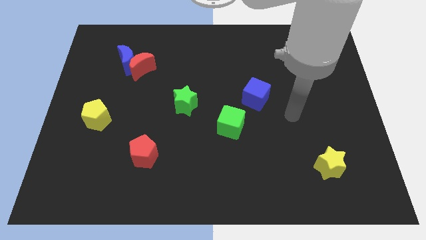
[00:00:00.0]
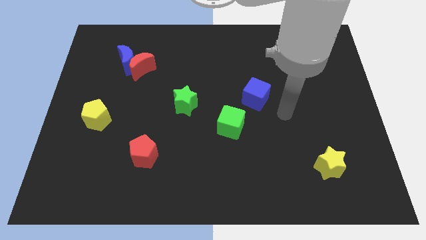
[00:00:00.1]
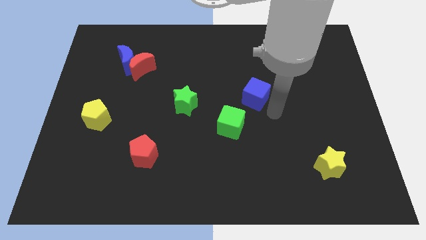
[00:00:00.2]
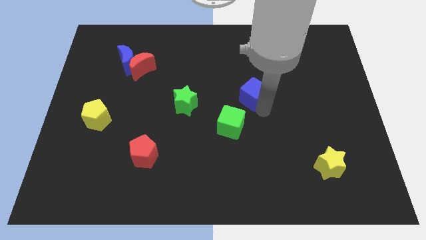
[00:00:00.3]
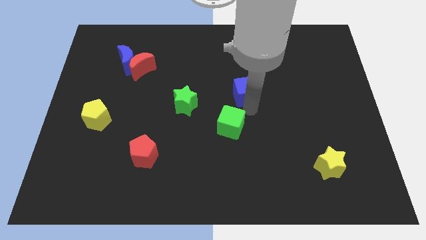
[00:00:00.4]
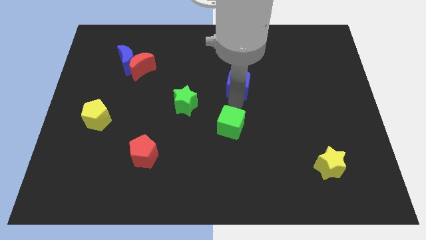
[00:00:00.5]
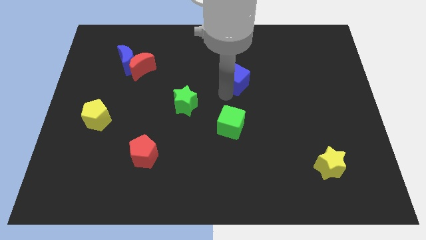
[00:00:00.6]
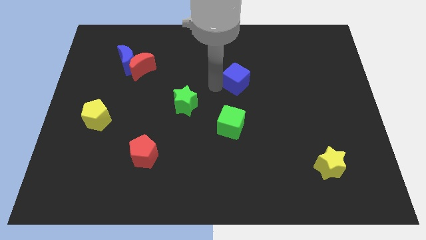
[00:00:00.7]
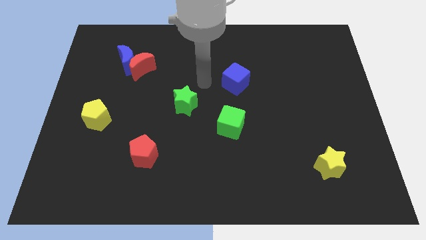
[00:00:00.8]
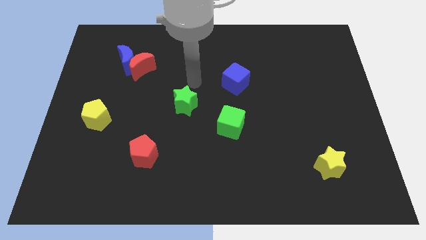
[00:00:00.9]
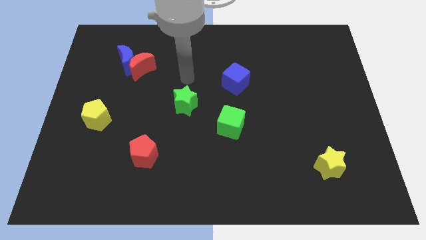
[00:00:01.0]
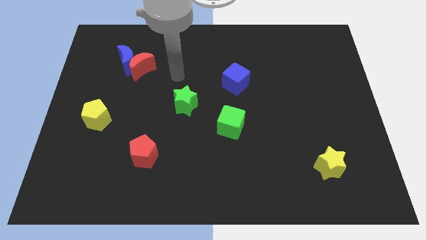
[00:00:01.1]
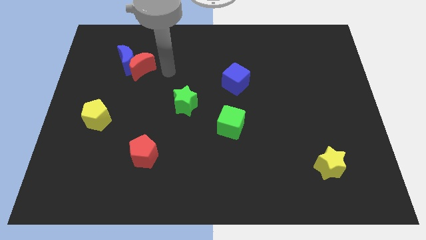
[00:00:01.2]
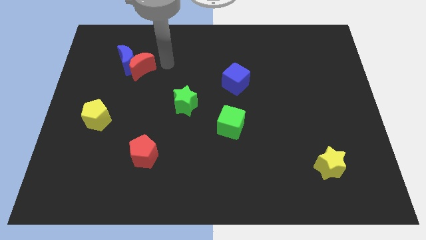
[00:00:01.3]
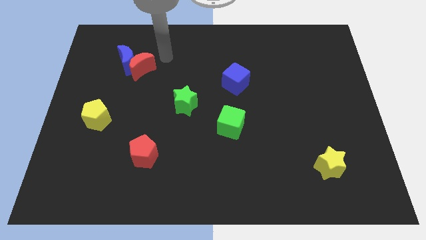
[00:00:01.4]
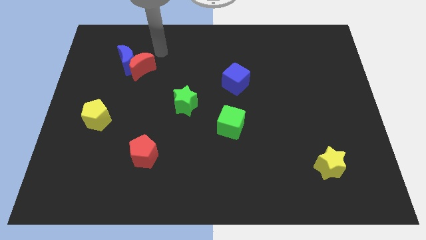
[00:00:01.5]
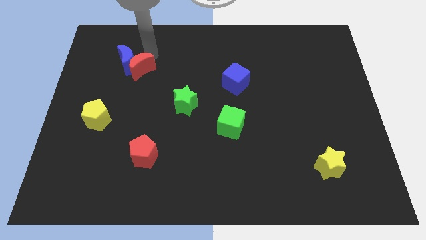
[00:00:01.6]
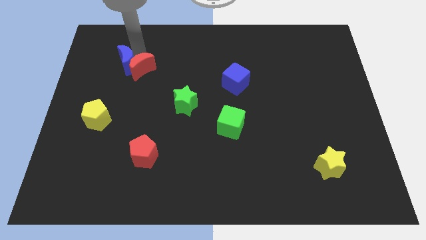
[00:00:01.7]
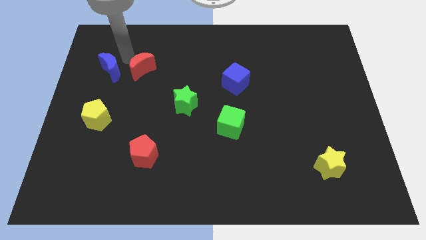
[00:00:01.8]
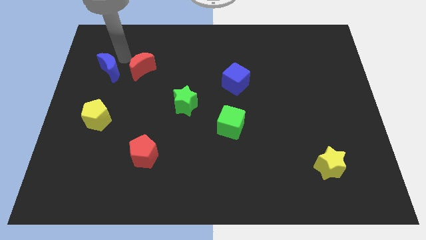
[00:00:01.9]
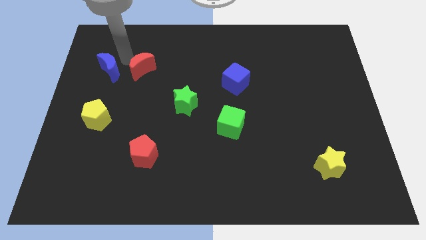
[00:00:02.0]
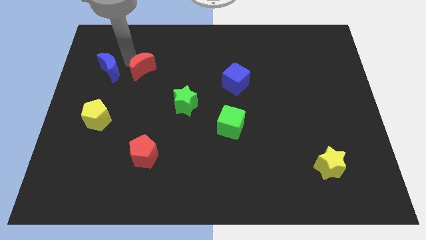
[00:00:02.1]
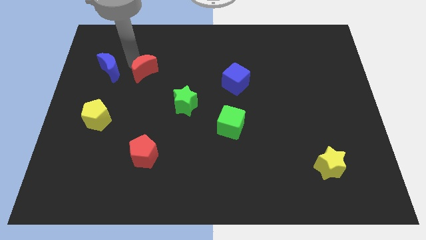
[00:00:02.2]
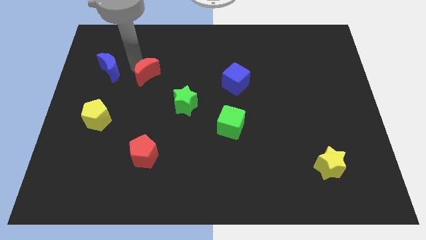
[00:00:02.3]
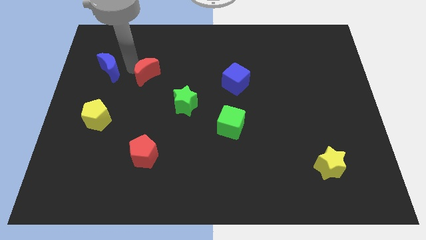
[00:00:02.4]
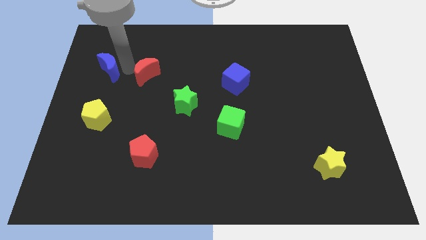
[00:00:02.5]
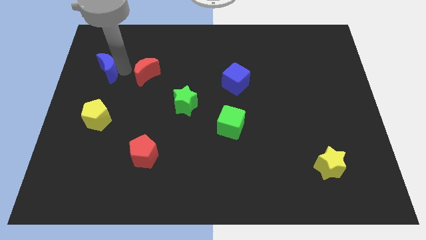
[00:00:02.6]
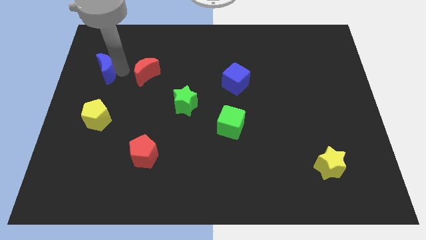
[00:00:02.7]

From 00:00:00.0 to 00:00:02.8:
move the red moon away from the blue moon

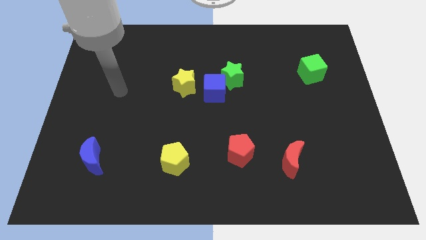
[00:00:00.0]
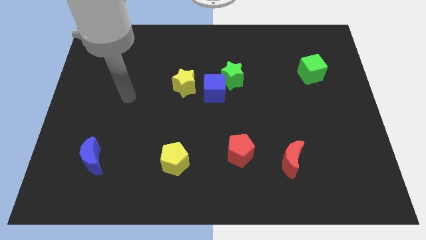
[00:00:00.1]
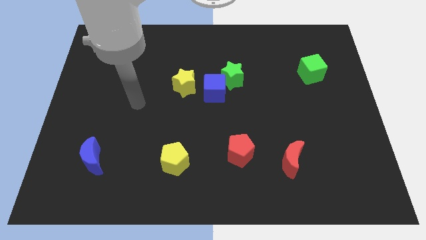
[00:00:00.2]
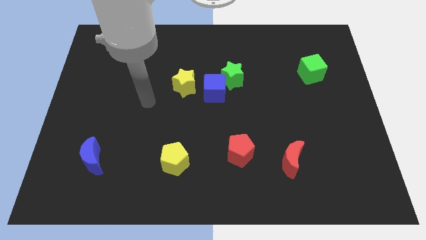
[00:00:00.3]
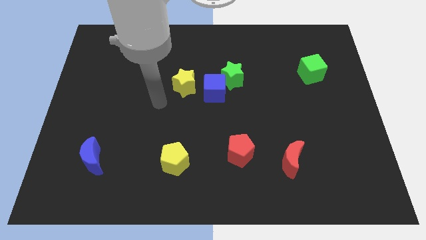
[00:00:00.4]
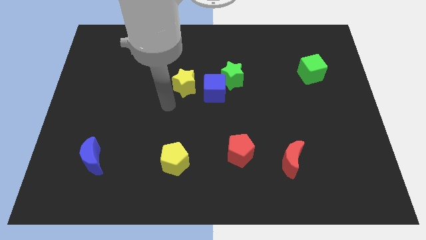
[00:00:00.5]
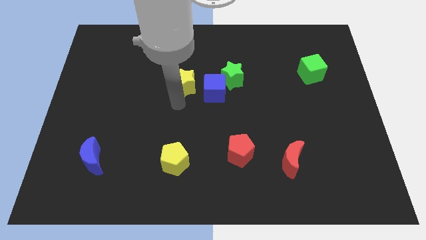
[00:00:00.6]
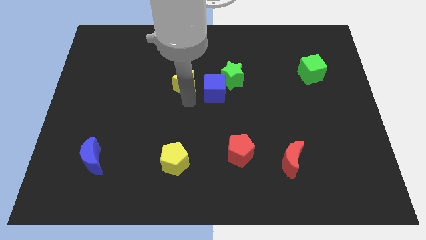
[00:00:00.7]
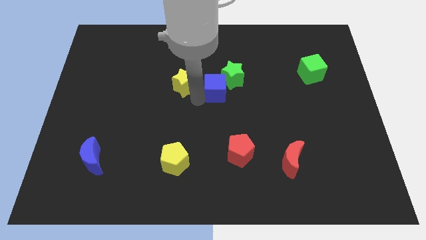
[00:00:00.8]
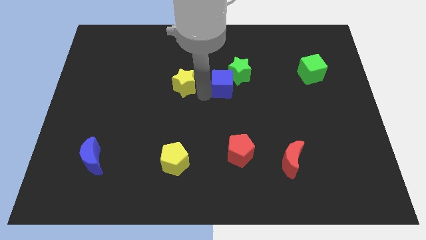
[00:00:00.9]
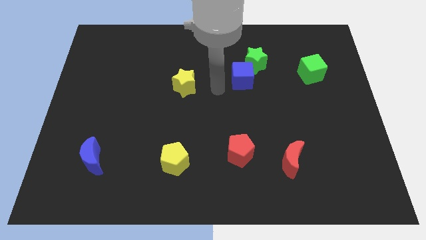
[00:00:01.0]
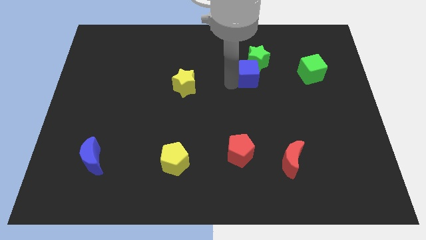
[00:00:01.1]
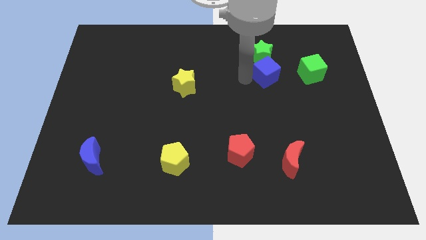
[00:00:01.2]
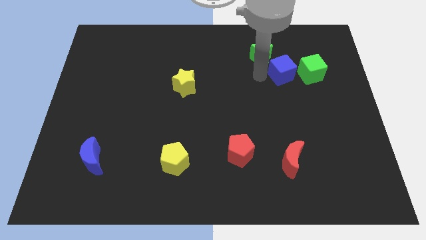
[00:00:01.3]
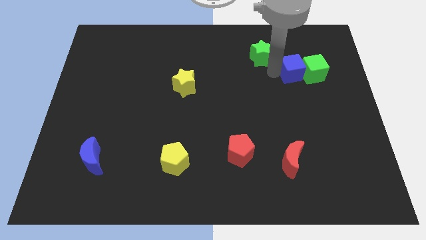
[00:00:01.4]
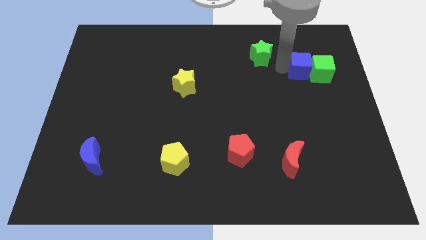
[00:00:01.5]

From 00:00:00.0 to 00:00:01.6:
separate the green star from the blue cube

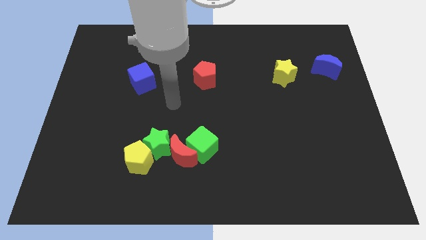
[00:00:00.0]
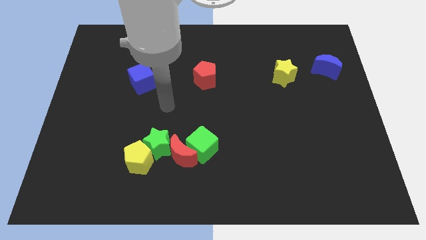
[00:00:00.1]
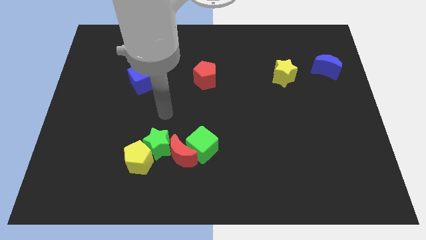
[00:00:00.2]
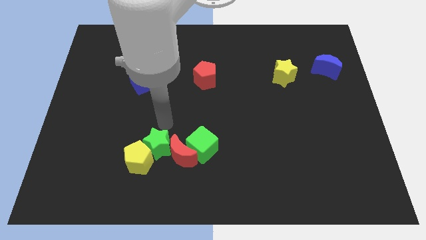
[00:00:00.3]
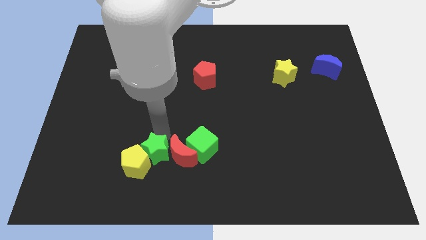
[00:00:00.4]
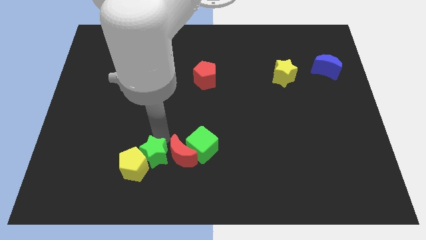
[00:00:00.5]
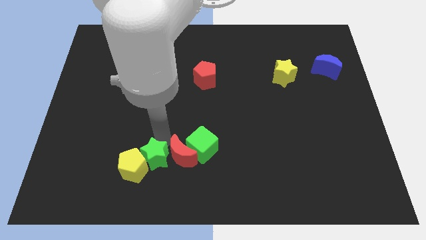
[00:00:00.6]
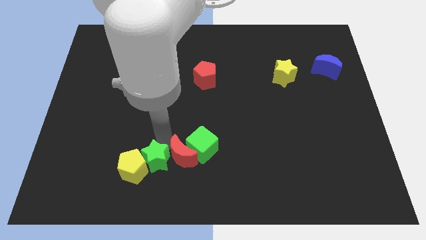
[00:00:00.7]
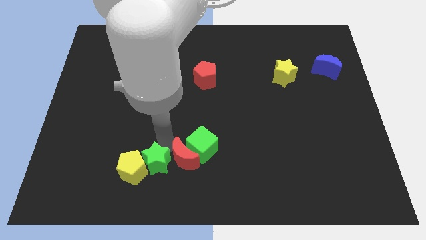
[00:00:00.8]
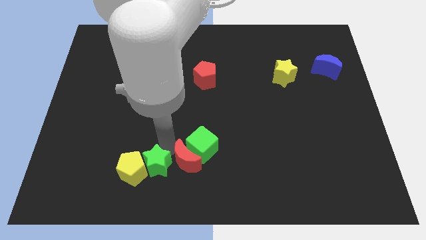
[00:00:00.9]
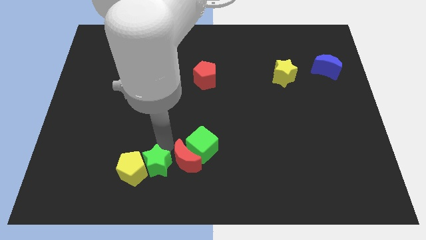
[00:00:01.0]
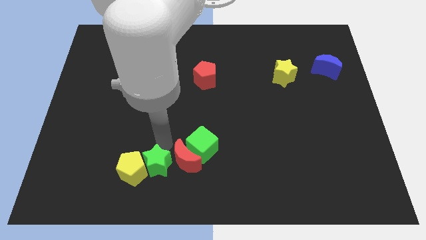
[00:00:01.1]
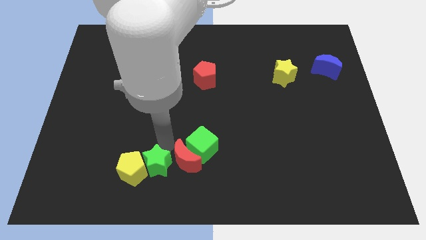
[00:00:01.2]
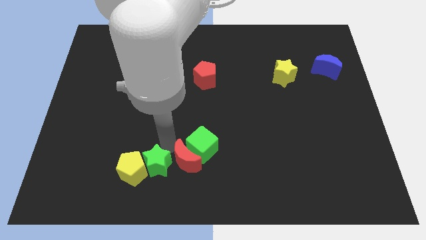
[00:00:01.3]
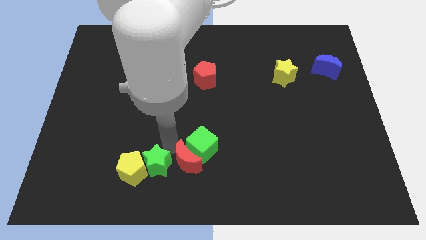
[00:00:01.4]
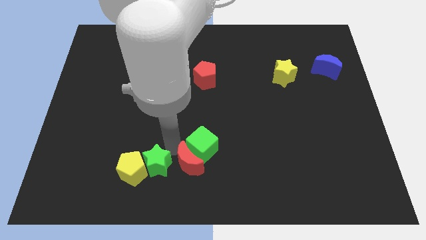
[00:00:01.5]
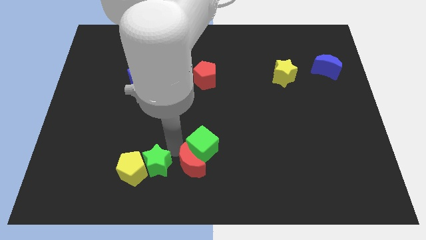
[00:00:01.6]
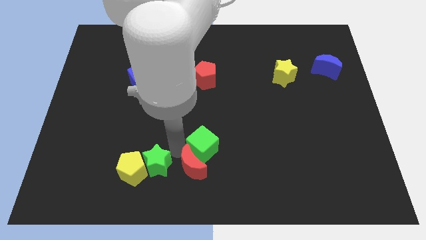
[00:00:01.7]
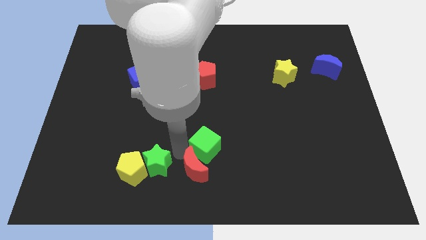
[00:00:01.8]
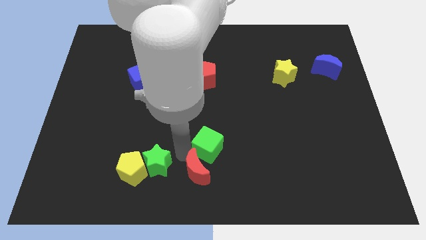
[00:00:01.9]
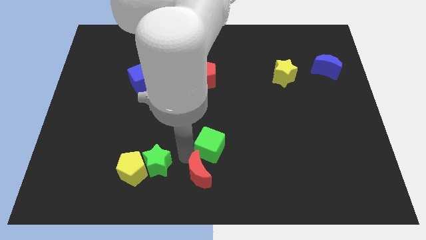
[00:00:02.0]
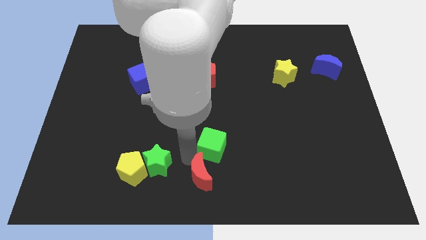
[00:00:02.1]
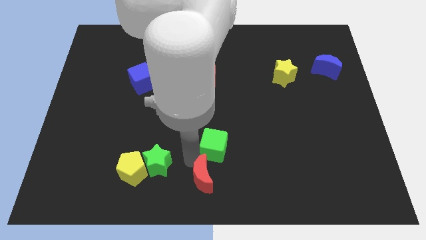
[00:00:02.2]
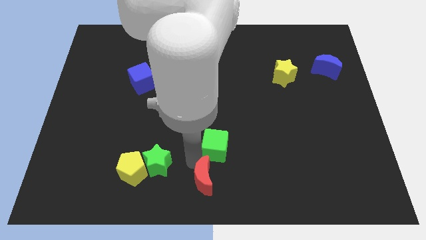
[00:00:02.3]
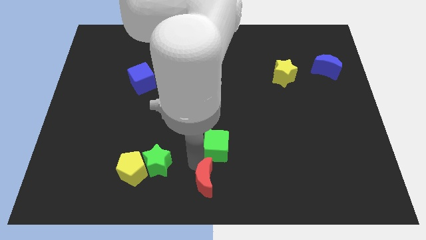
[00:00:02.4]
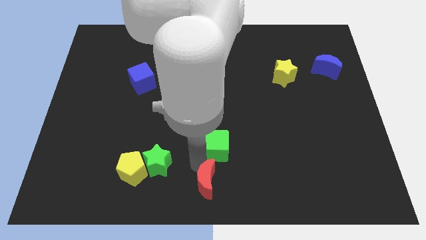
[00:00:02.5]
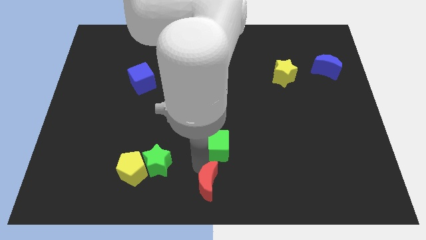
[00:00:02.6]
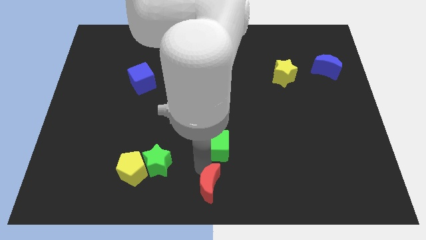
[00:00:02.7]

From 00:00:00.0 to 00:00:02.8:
move the red moon away from the group

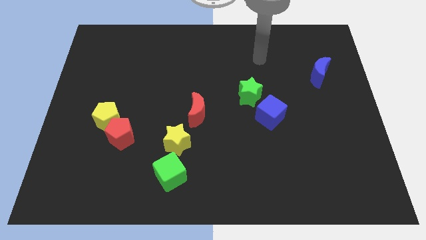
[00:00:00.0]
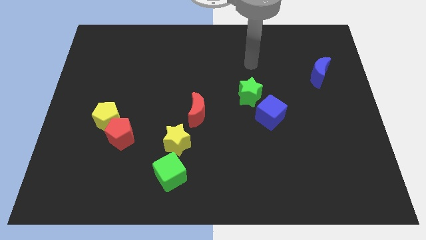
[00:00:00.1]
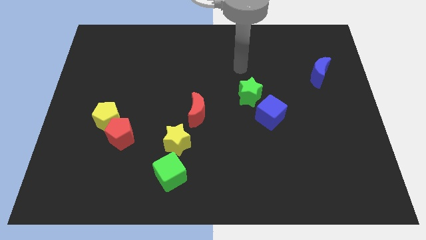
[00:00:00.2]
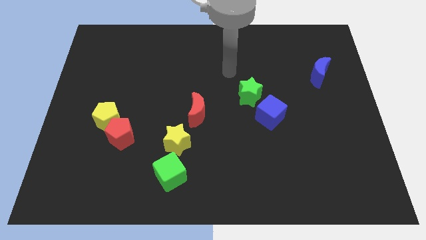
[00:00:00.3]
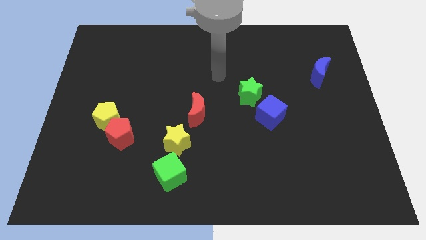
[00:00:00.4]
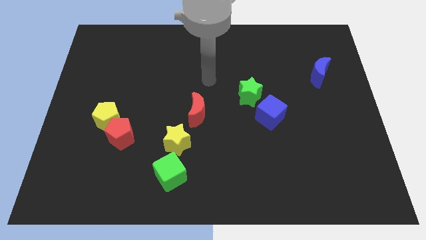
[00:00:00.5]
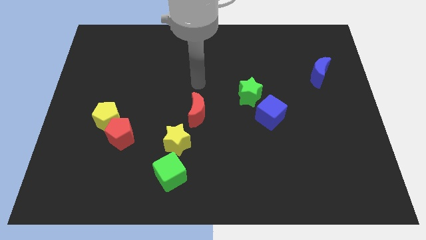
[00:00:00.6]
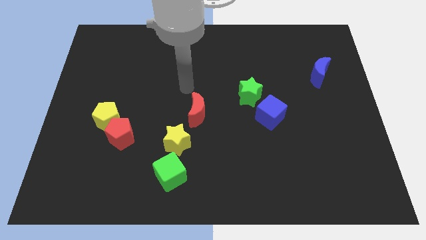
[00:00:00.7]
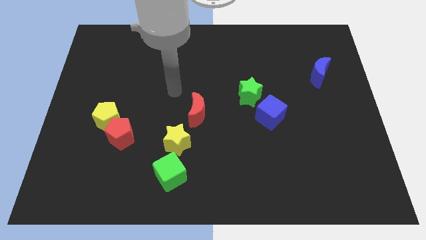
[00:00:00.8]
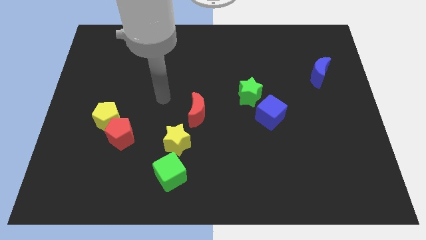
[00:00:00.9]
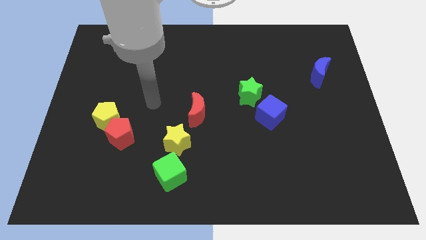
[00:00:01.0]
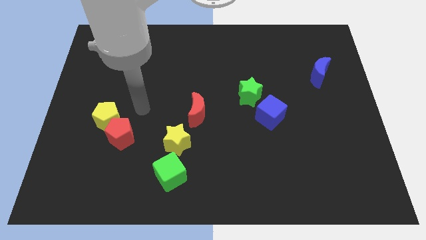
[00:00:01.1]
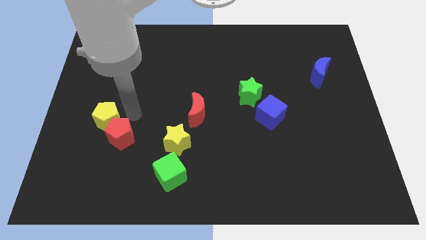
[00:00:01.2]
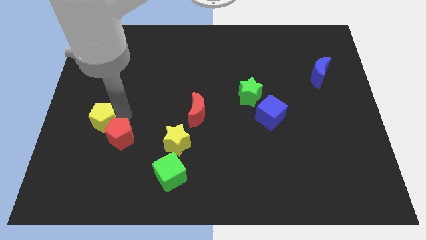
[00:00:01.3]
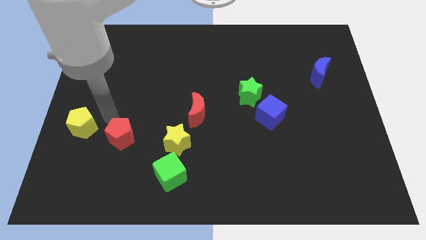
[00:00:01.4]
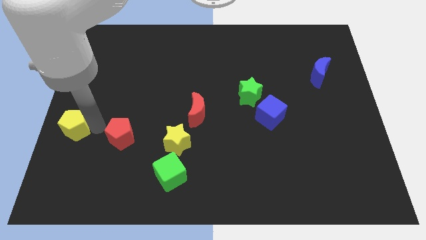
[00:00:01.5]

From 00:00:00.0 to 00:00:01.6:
separate the red pentagon from the yellow pentagon

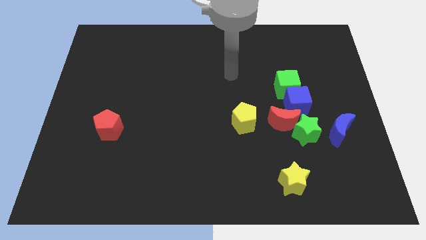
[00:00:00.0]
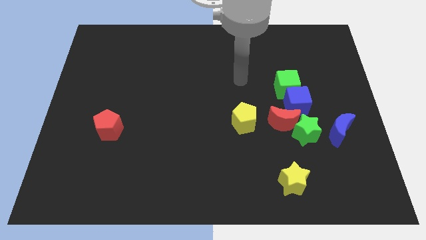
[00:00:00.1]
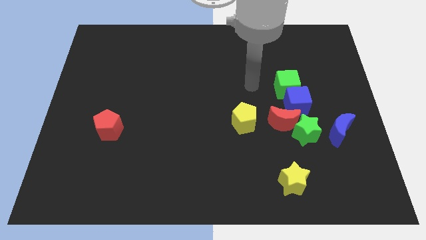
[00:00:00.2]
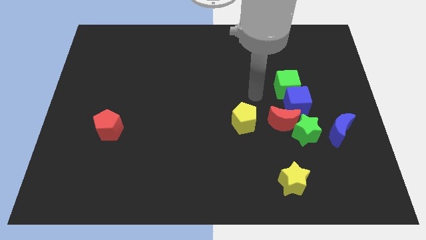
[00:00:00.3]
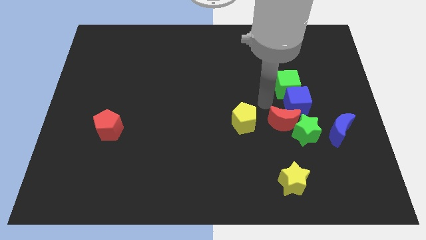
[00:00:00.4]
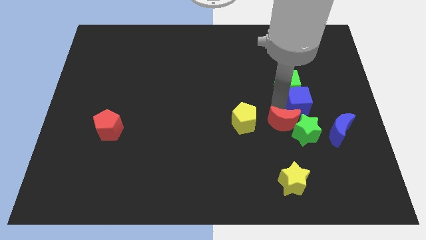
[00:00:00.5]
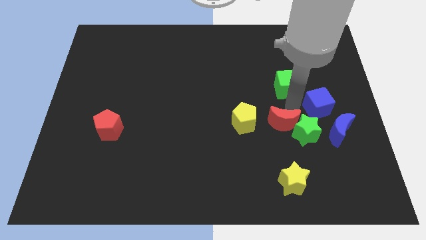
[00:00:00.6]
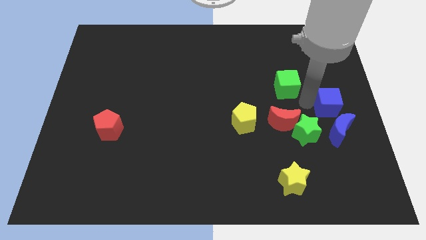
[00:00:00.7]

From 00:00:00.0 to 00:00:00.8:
move the green cube away from the blue cube
